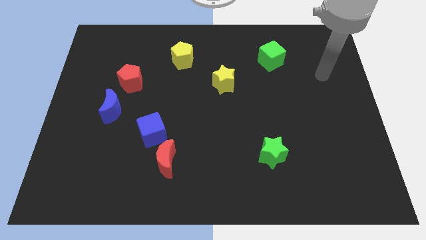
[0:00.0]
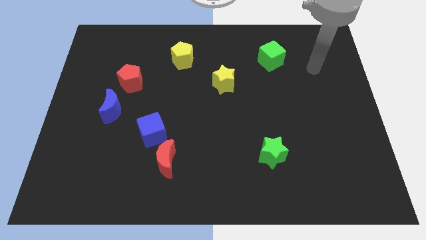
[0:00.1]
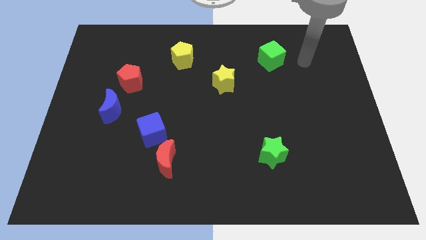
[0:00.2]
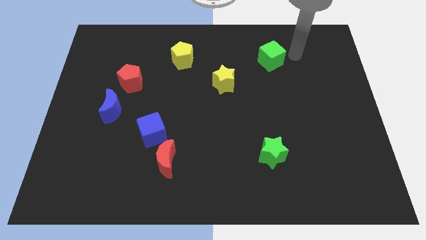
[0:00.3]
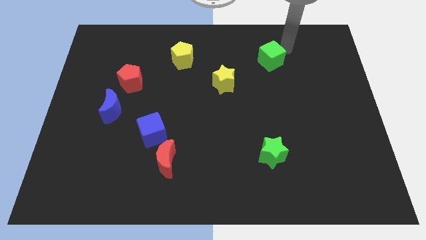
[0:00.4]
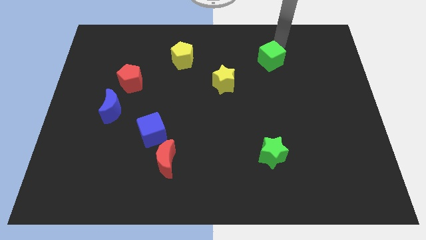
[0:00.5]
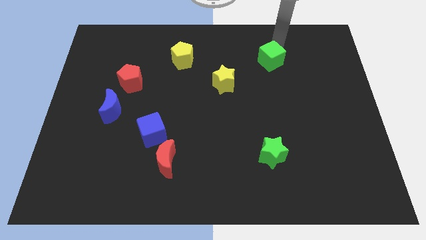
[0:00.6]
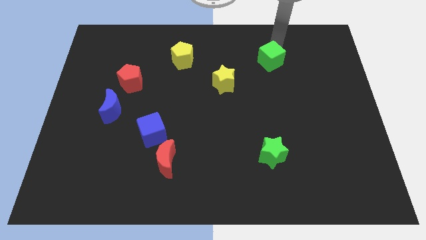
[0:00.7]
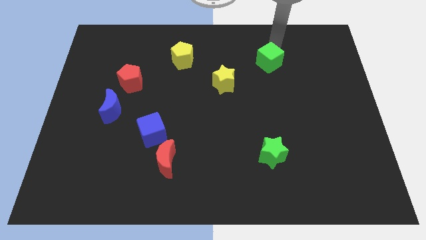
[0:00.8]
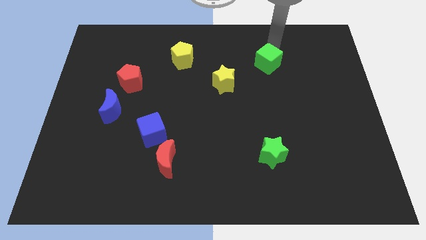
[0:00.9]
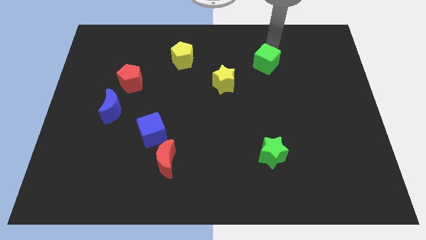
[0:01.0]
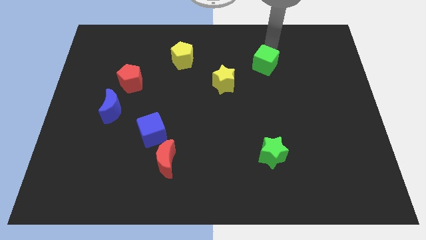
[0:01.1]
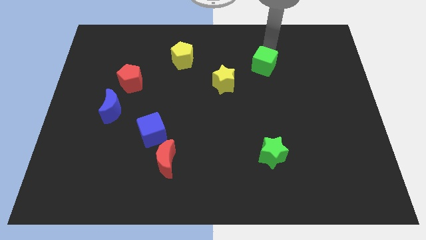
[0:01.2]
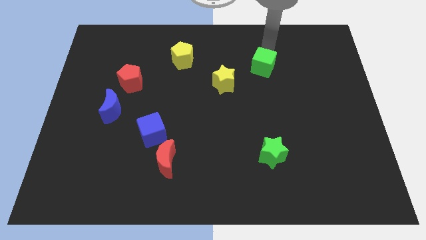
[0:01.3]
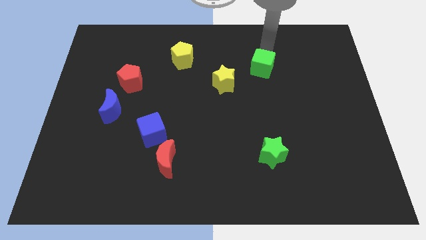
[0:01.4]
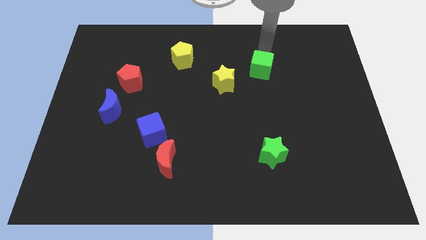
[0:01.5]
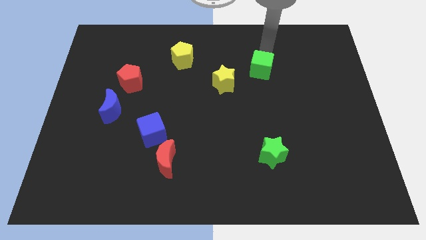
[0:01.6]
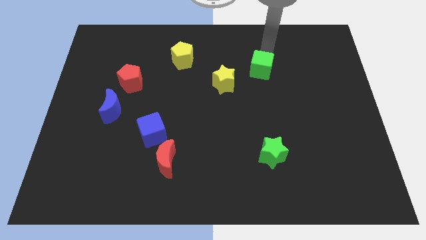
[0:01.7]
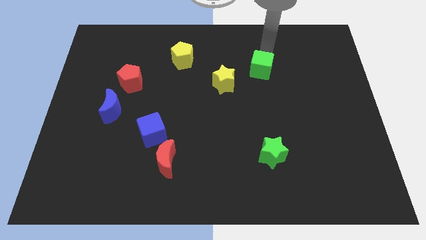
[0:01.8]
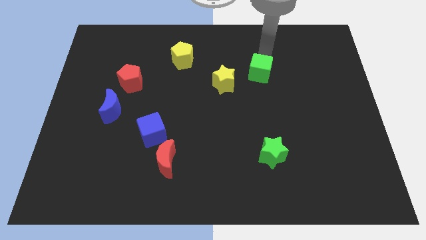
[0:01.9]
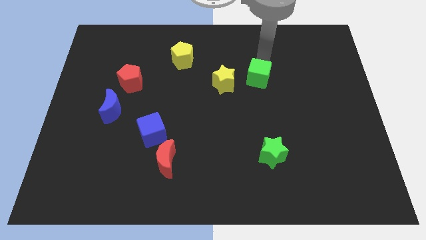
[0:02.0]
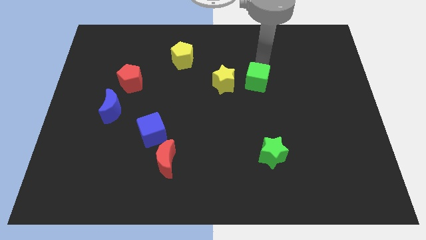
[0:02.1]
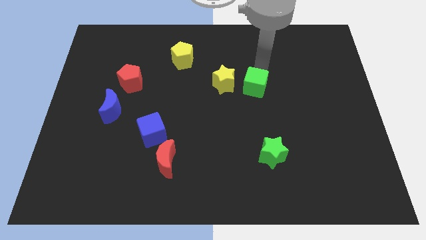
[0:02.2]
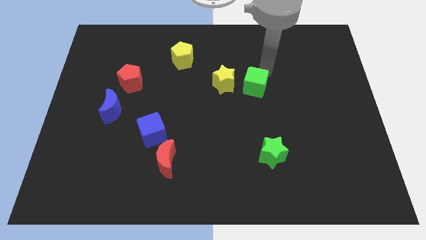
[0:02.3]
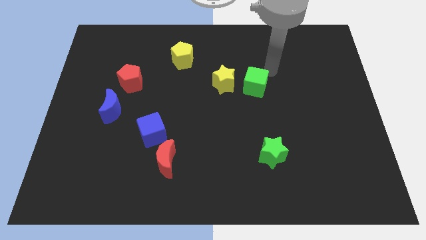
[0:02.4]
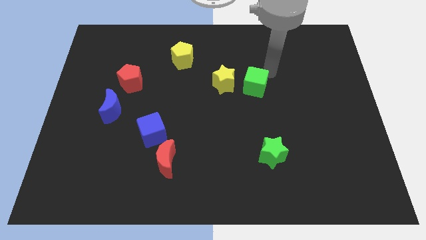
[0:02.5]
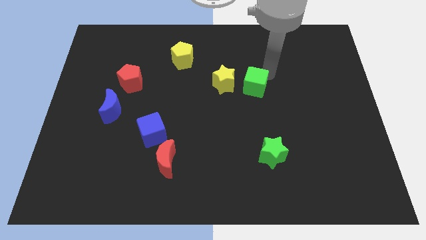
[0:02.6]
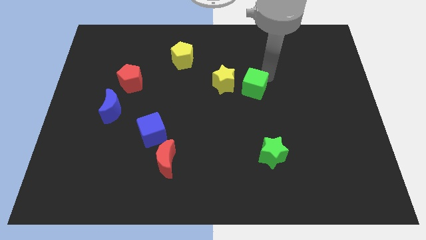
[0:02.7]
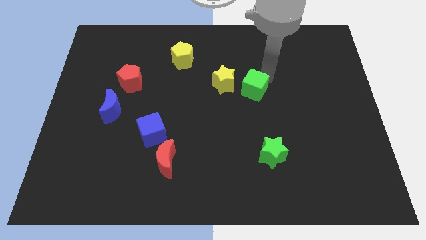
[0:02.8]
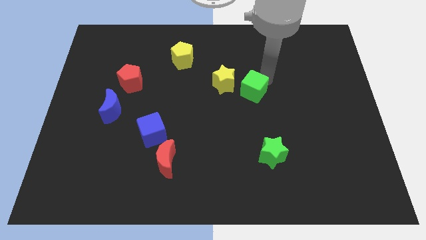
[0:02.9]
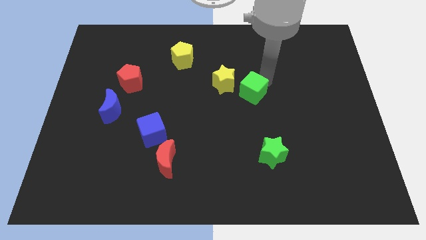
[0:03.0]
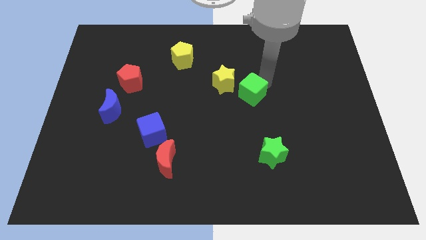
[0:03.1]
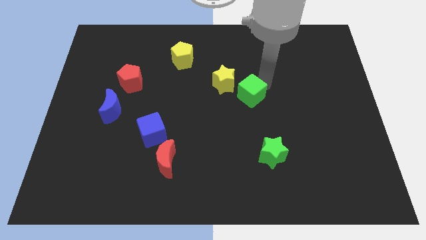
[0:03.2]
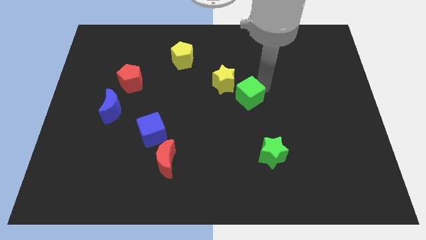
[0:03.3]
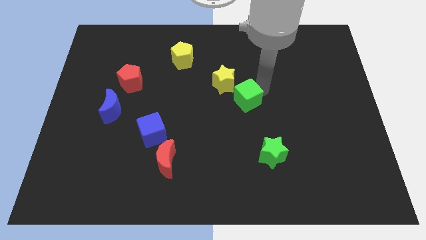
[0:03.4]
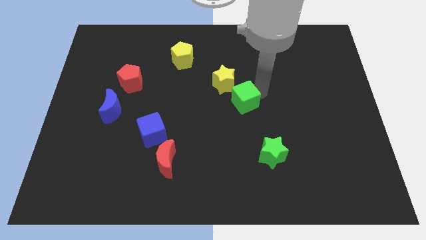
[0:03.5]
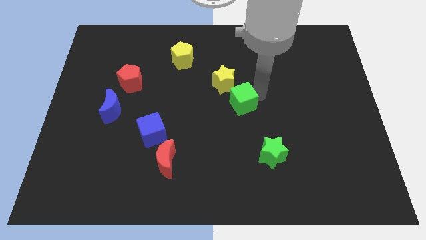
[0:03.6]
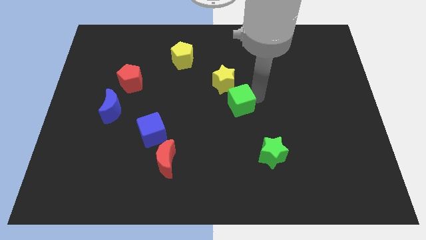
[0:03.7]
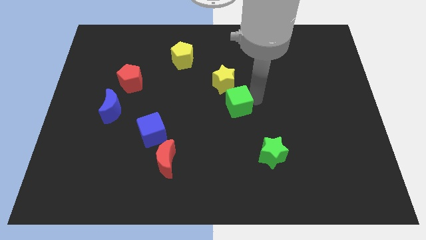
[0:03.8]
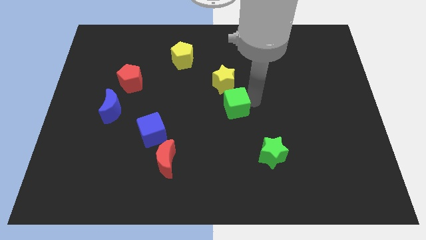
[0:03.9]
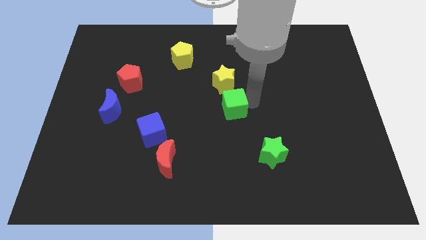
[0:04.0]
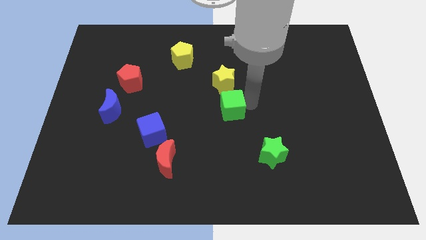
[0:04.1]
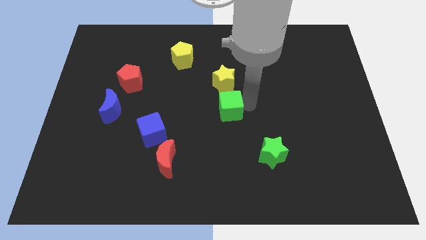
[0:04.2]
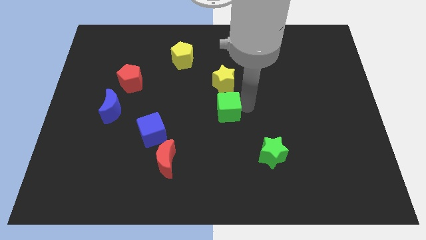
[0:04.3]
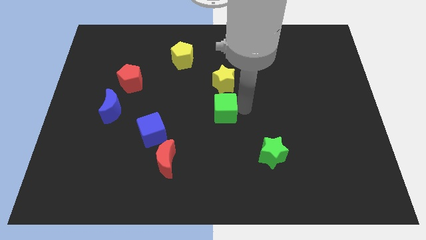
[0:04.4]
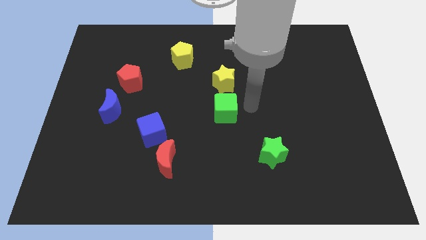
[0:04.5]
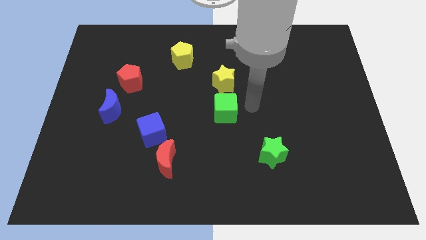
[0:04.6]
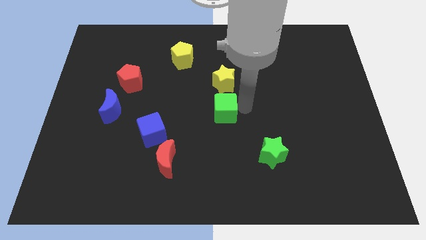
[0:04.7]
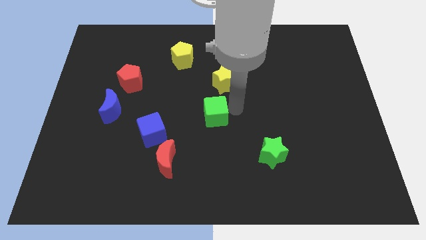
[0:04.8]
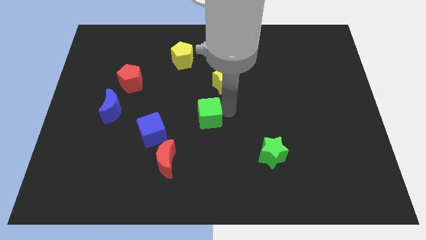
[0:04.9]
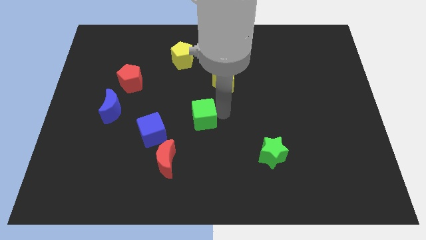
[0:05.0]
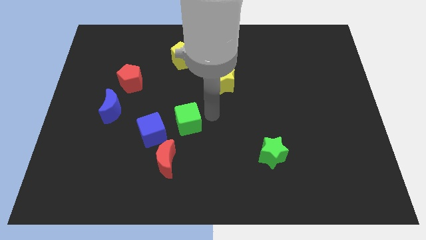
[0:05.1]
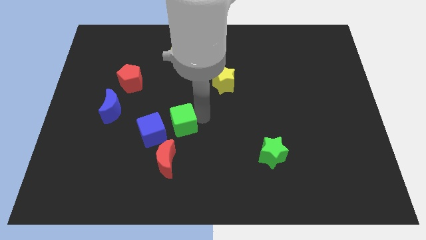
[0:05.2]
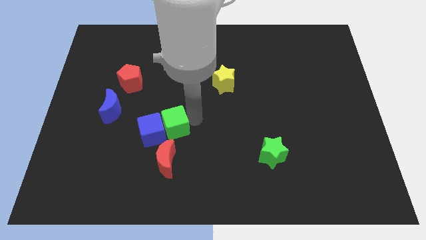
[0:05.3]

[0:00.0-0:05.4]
push the green cube towards the blue cube

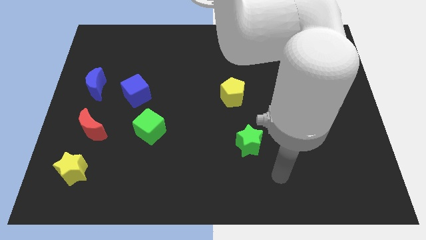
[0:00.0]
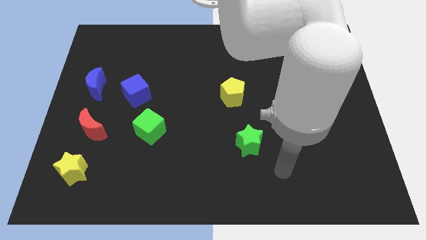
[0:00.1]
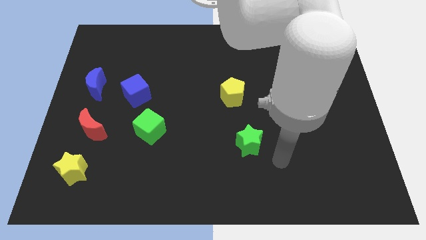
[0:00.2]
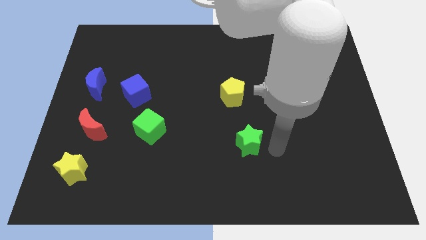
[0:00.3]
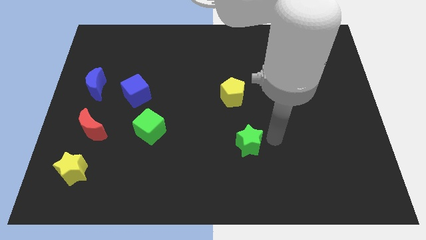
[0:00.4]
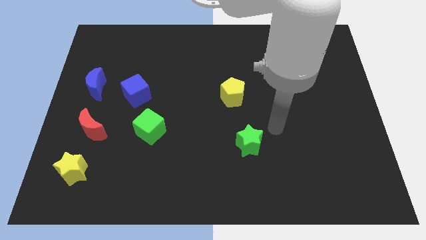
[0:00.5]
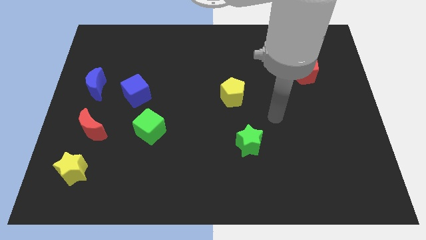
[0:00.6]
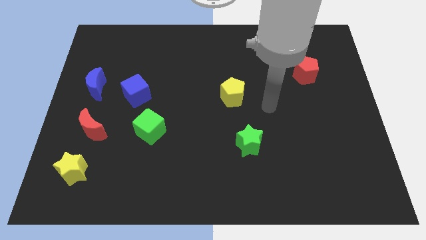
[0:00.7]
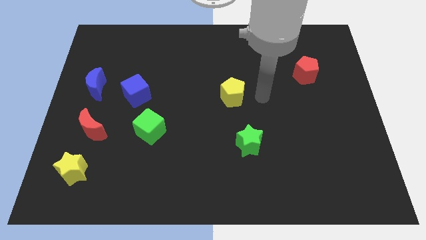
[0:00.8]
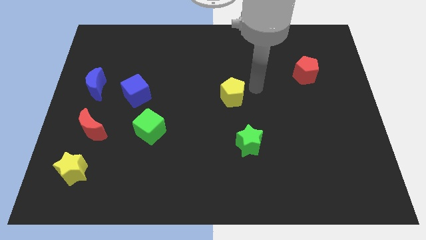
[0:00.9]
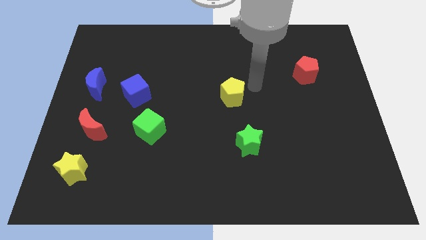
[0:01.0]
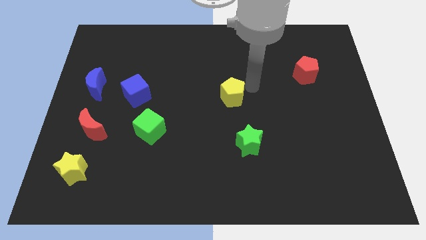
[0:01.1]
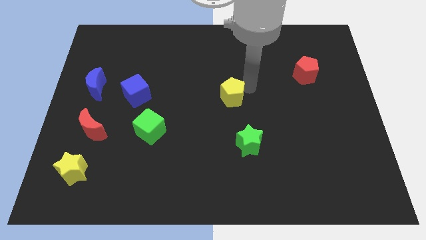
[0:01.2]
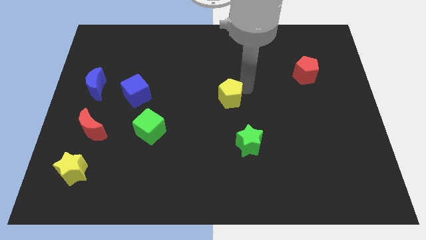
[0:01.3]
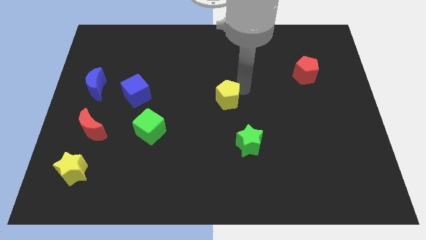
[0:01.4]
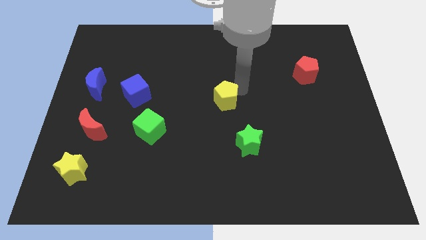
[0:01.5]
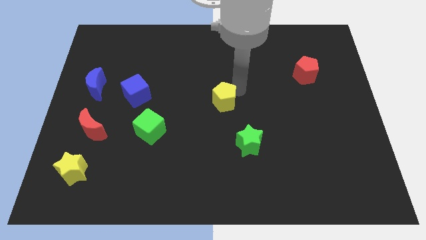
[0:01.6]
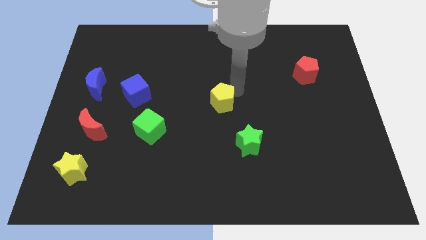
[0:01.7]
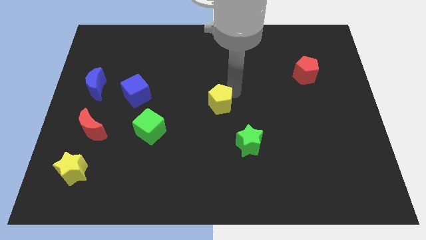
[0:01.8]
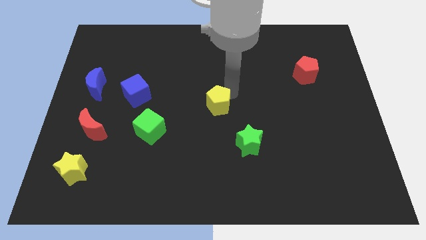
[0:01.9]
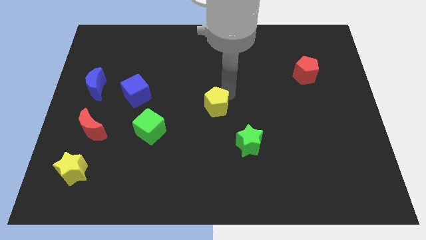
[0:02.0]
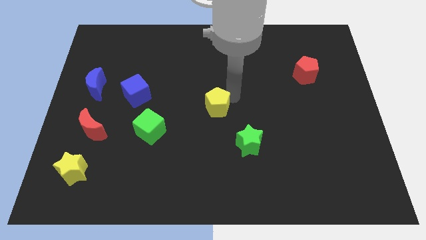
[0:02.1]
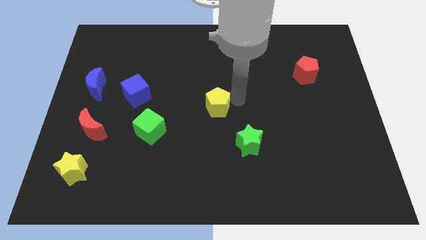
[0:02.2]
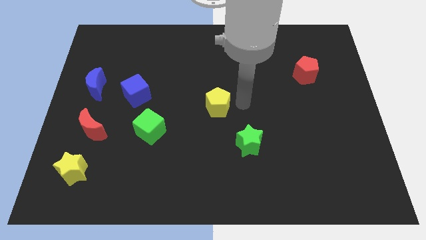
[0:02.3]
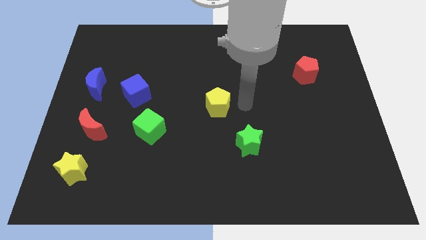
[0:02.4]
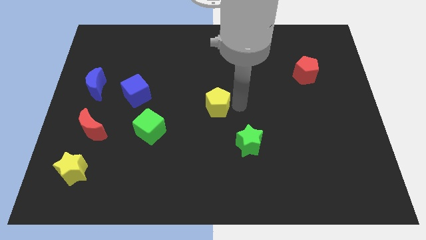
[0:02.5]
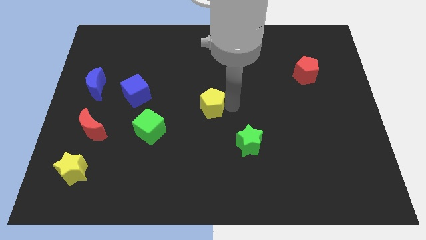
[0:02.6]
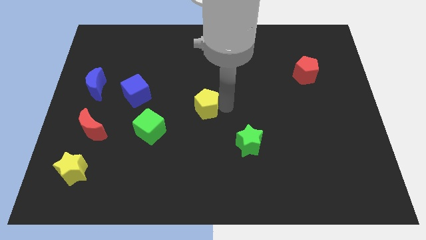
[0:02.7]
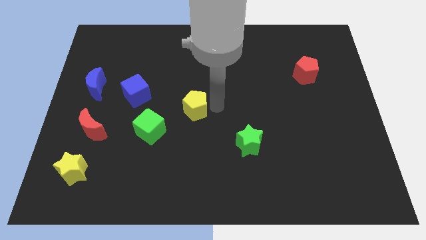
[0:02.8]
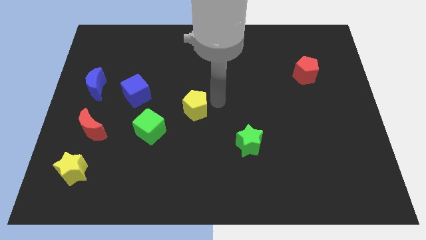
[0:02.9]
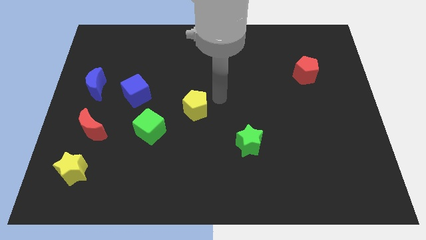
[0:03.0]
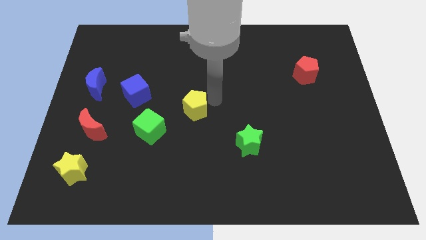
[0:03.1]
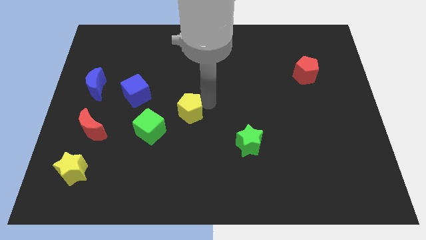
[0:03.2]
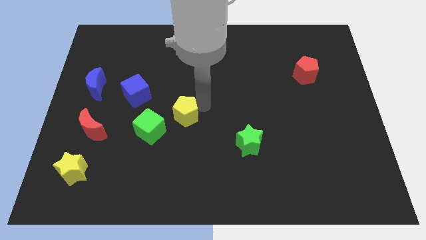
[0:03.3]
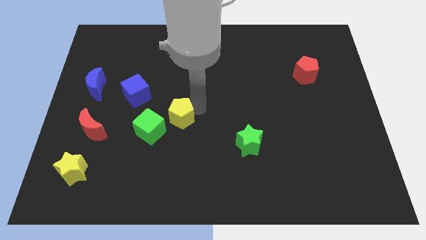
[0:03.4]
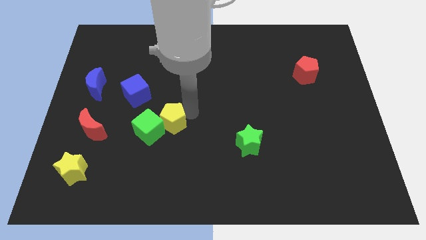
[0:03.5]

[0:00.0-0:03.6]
move the yellow pentagon close to the green cube
